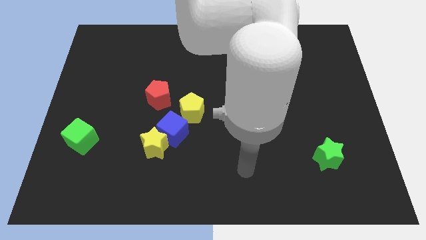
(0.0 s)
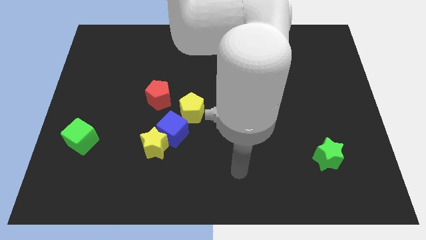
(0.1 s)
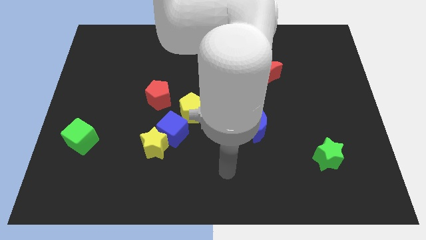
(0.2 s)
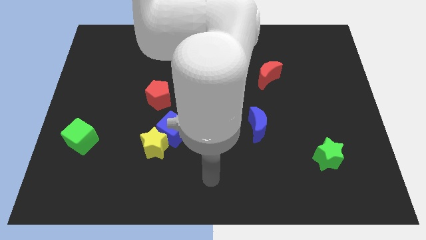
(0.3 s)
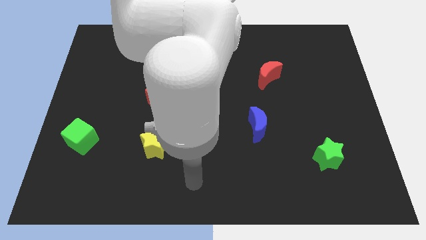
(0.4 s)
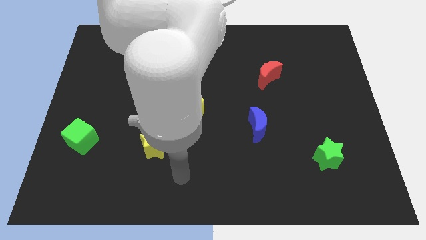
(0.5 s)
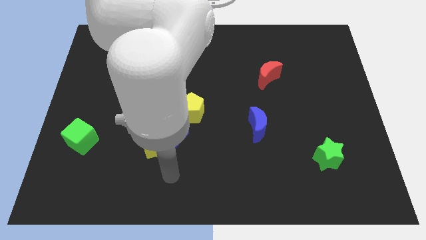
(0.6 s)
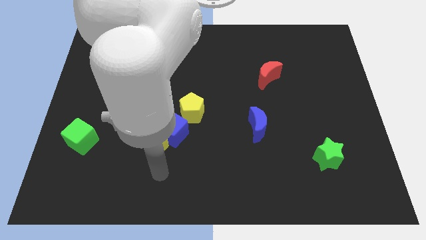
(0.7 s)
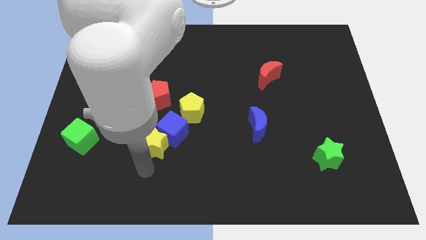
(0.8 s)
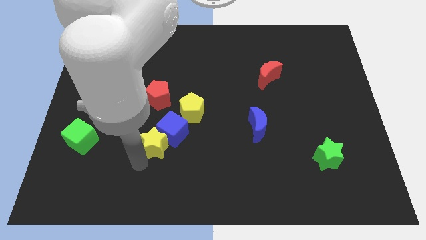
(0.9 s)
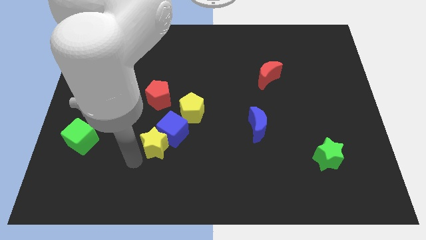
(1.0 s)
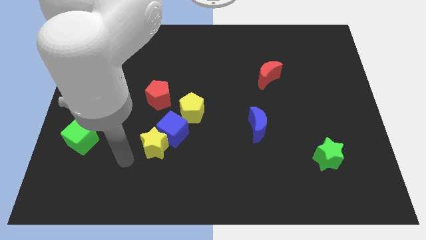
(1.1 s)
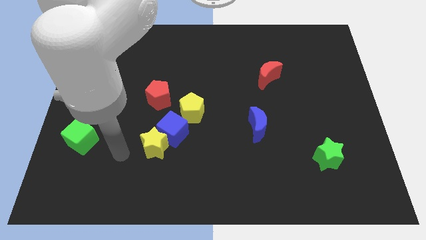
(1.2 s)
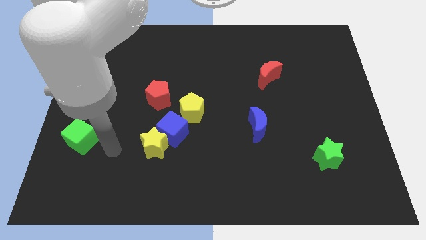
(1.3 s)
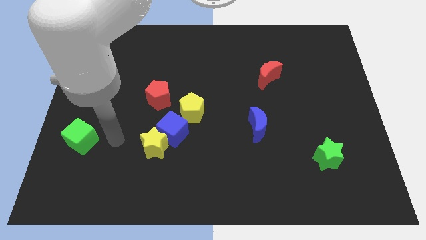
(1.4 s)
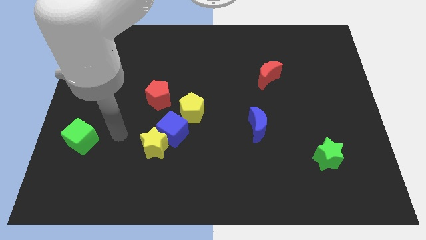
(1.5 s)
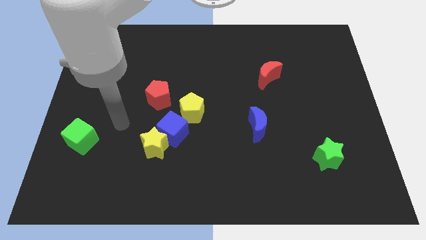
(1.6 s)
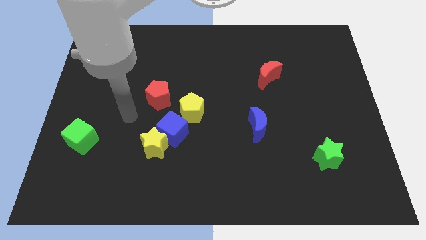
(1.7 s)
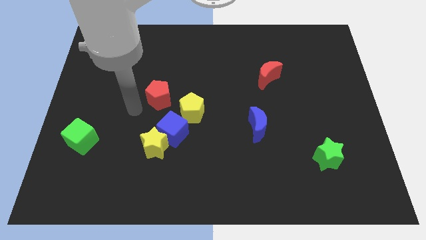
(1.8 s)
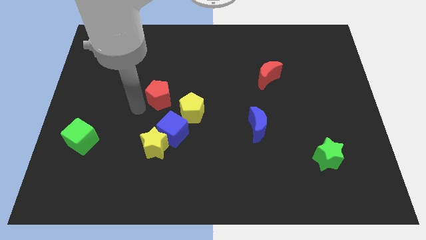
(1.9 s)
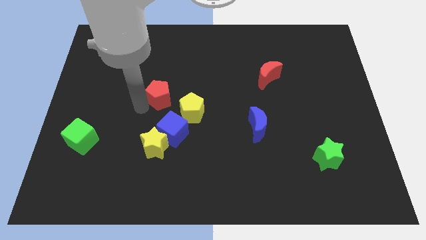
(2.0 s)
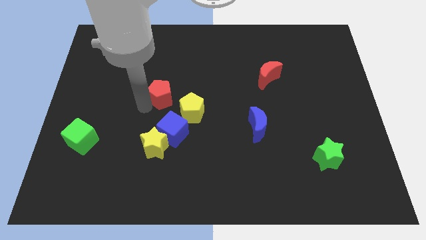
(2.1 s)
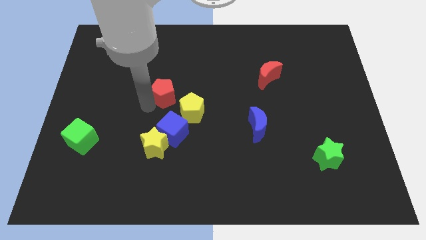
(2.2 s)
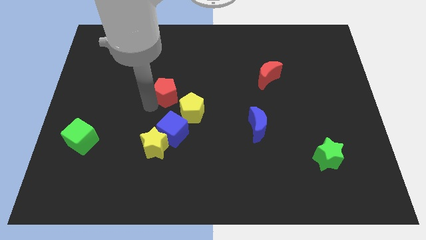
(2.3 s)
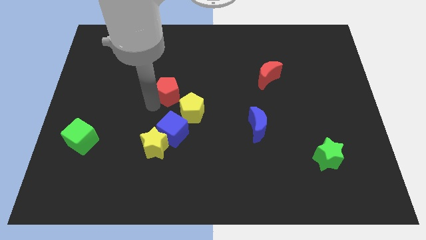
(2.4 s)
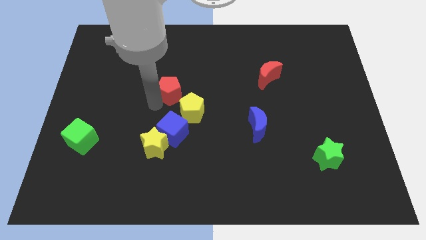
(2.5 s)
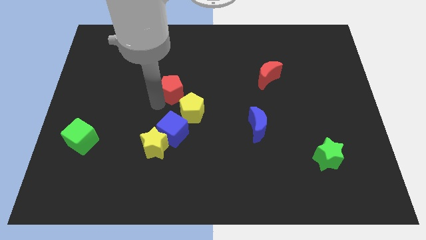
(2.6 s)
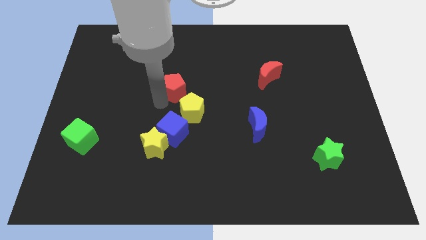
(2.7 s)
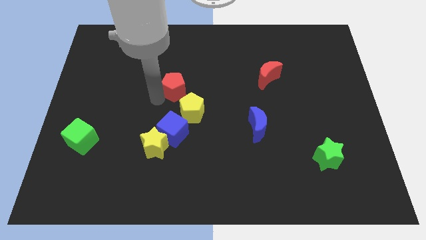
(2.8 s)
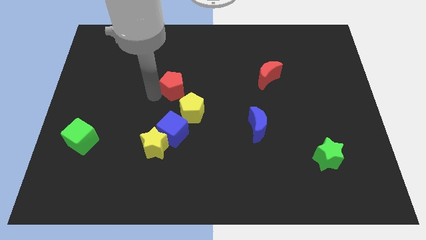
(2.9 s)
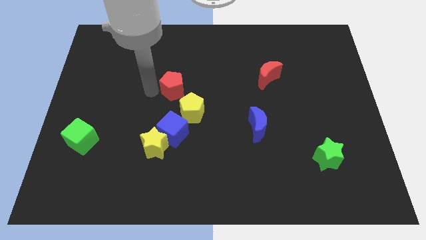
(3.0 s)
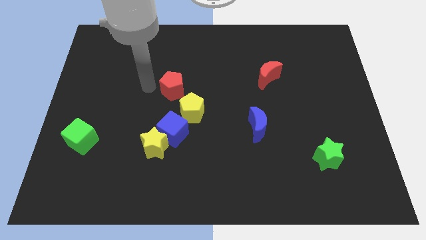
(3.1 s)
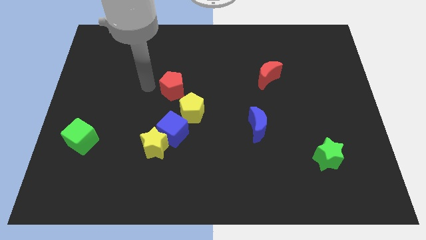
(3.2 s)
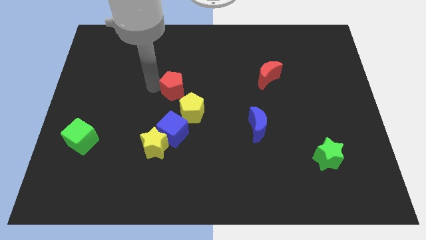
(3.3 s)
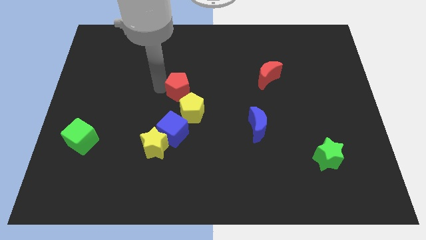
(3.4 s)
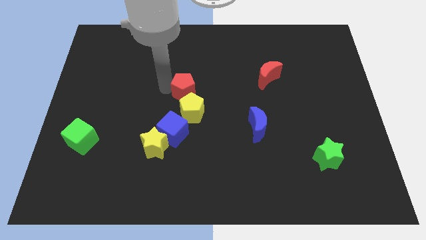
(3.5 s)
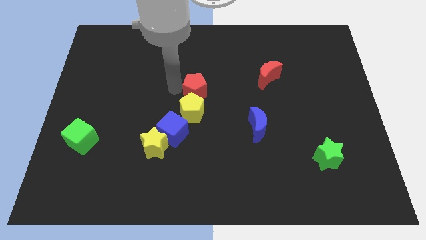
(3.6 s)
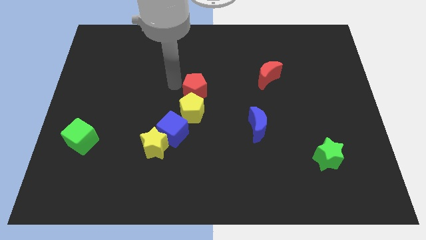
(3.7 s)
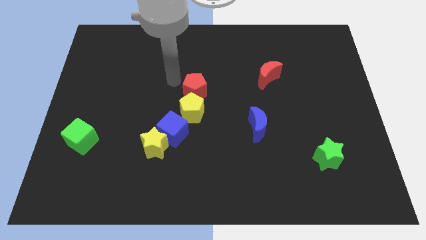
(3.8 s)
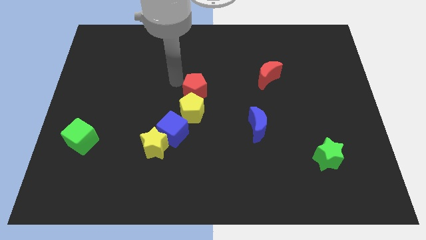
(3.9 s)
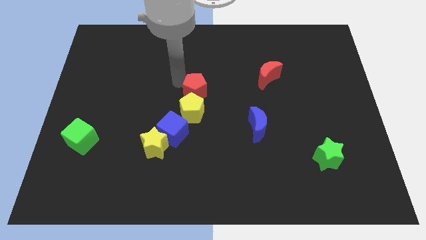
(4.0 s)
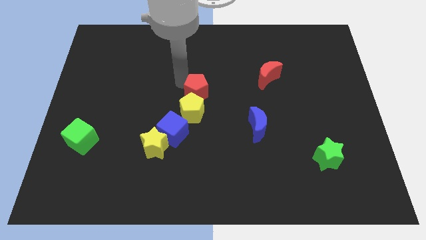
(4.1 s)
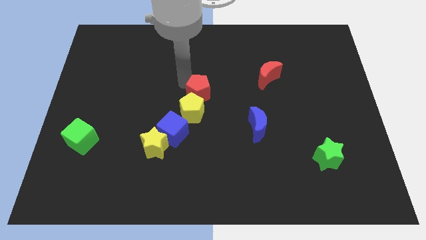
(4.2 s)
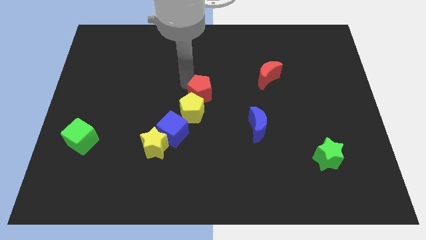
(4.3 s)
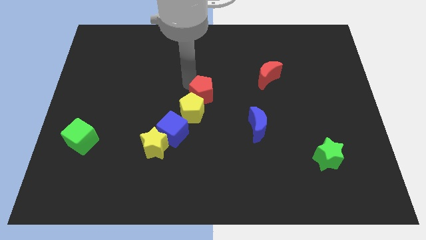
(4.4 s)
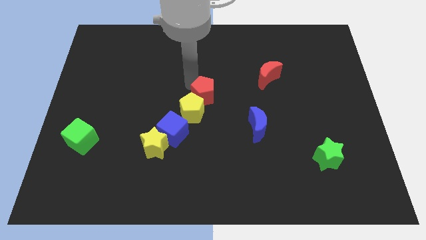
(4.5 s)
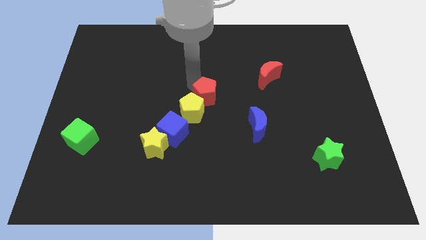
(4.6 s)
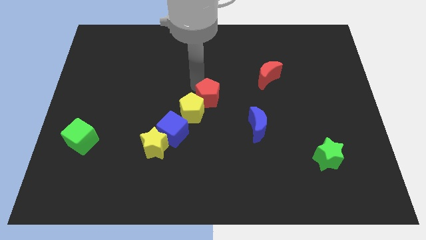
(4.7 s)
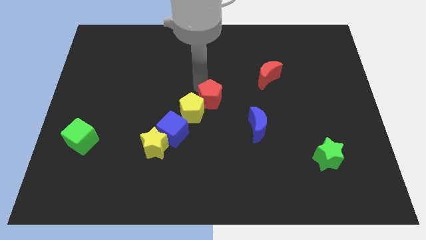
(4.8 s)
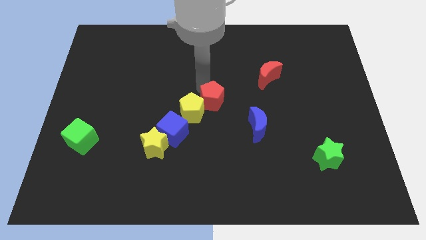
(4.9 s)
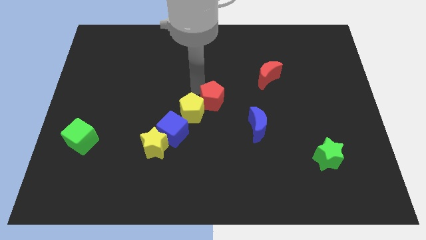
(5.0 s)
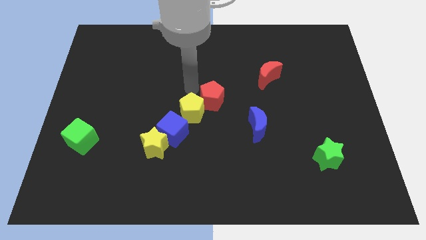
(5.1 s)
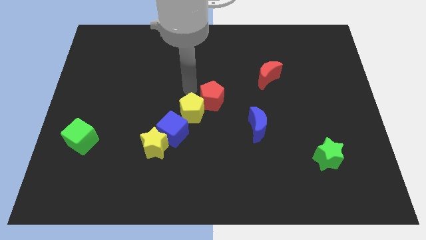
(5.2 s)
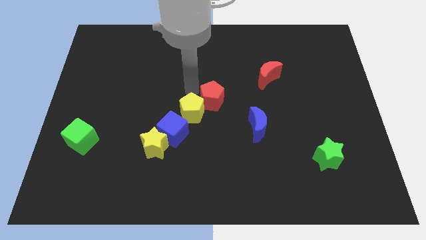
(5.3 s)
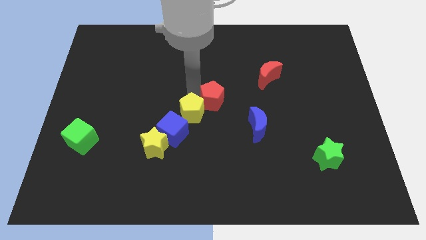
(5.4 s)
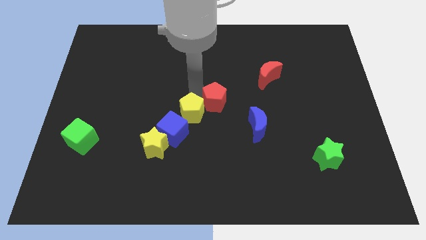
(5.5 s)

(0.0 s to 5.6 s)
move the red pentagon to the top left side of the blue moon
